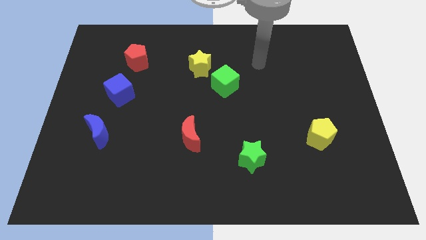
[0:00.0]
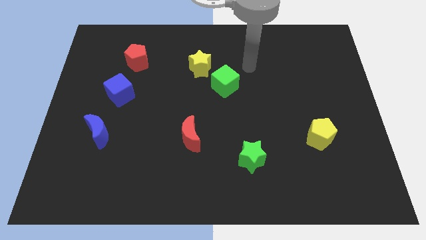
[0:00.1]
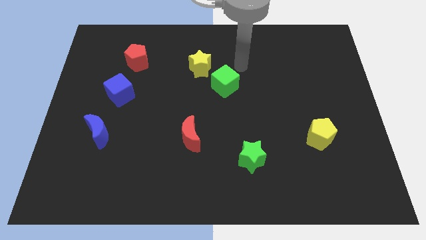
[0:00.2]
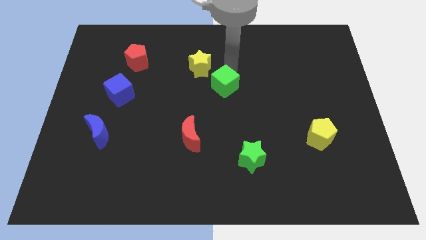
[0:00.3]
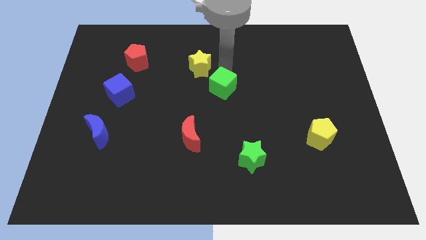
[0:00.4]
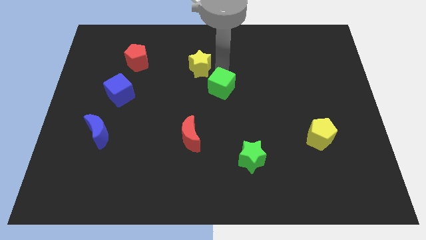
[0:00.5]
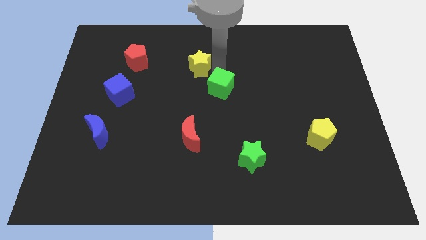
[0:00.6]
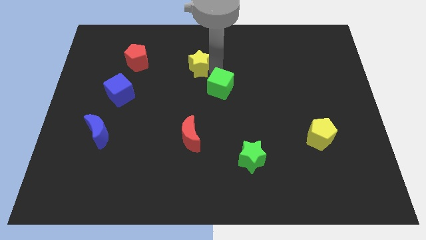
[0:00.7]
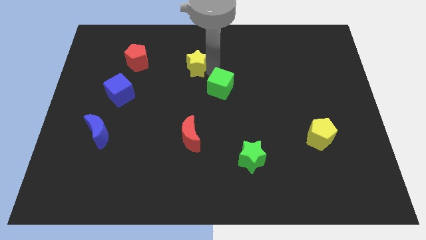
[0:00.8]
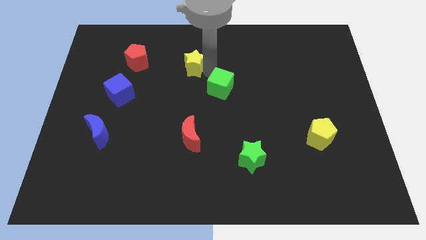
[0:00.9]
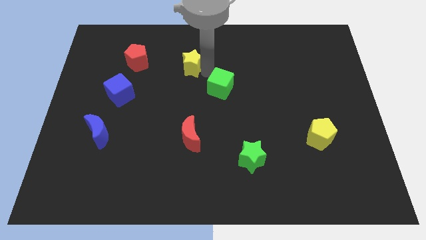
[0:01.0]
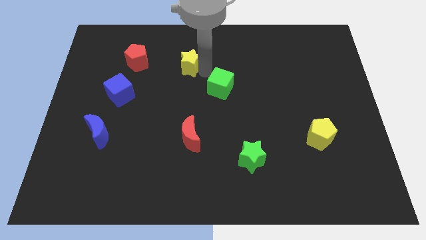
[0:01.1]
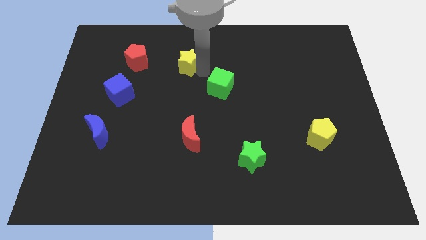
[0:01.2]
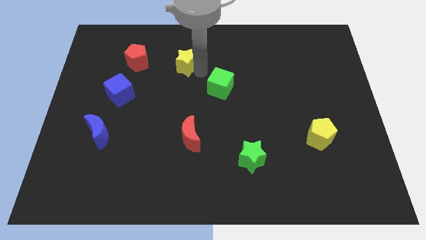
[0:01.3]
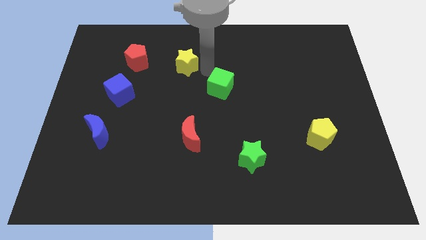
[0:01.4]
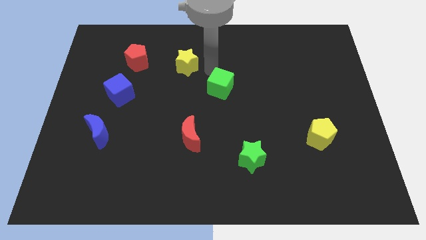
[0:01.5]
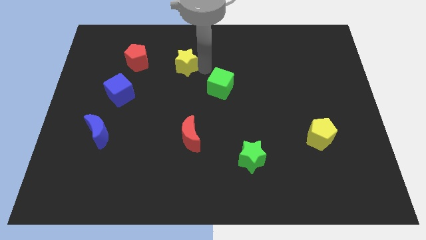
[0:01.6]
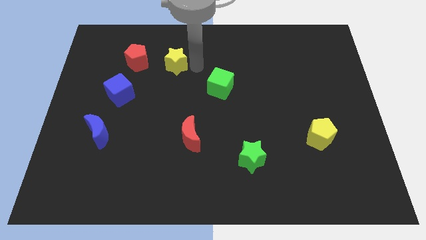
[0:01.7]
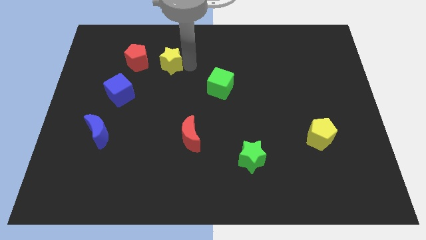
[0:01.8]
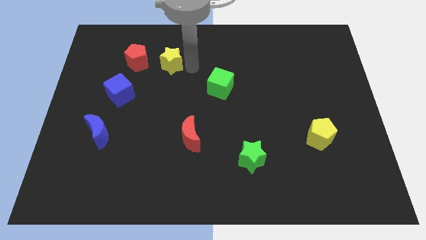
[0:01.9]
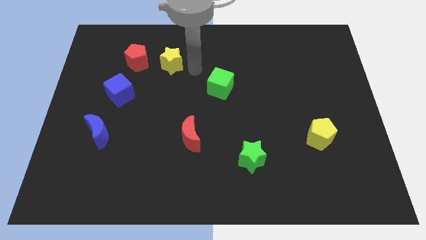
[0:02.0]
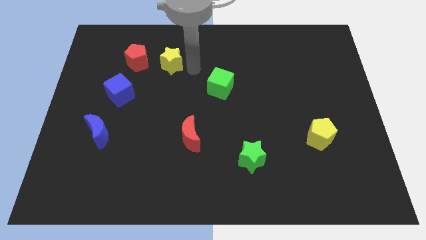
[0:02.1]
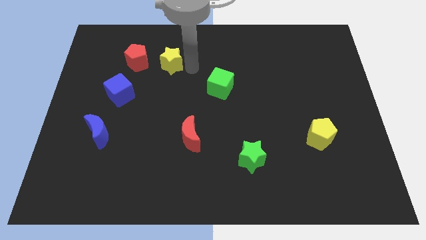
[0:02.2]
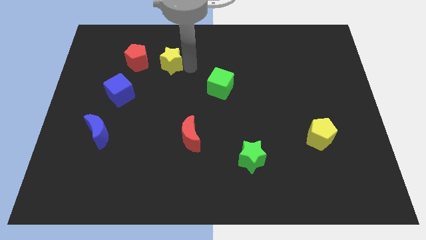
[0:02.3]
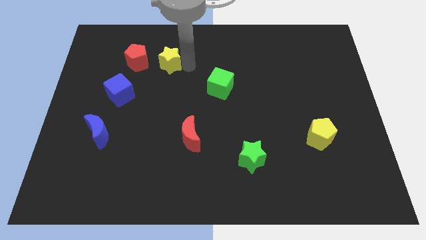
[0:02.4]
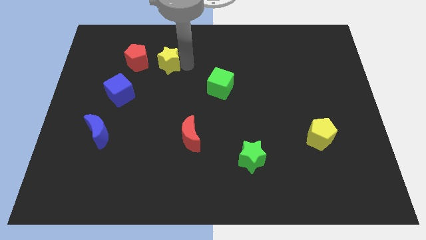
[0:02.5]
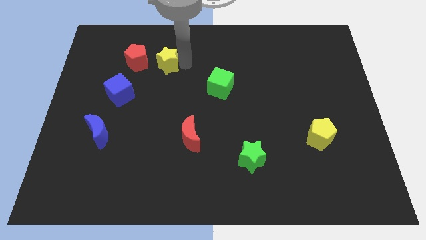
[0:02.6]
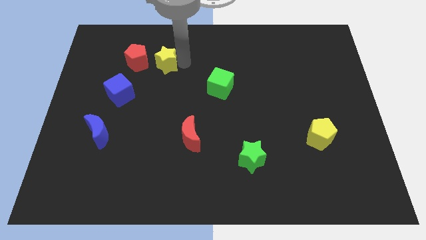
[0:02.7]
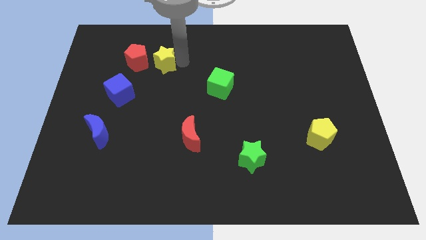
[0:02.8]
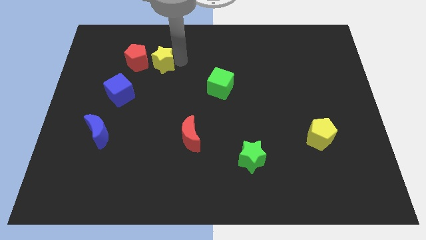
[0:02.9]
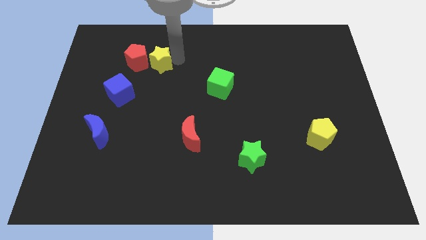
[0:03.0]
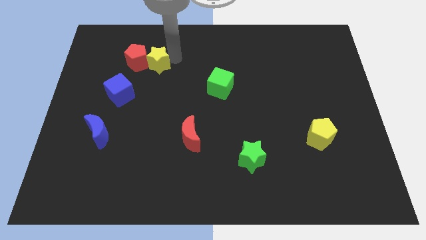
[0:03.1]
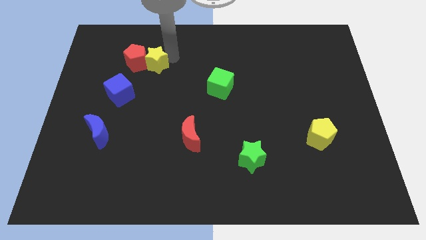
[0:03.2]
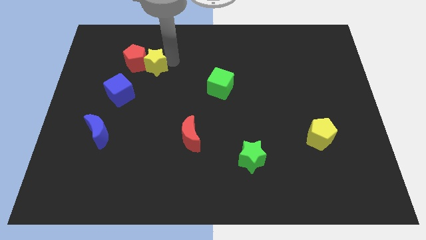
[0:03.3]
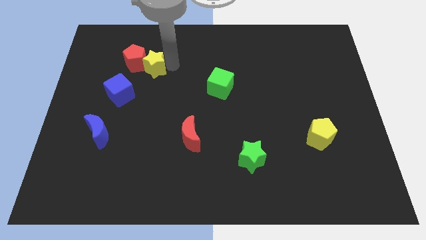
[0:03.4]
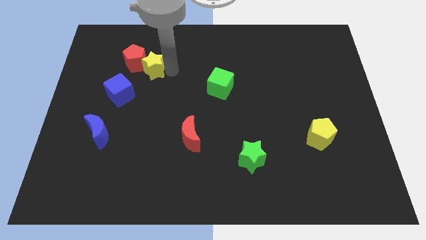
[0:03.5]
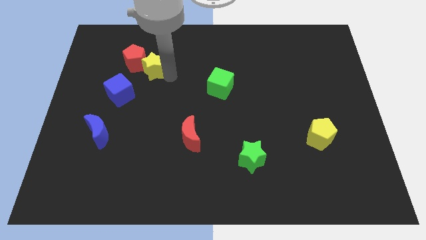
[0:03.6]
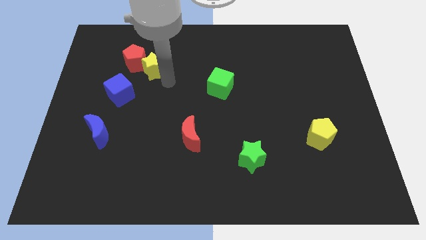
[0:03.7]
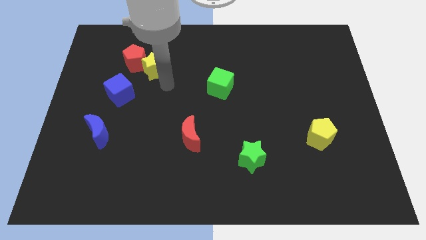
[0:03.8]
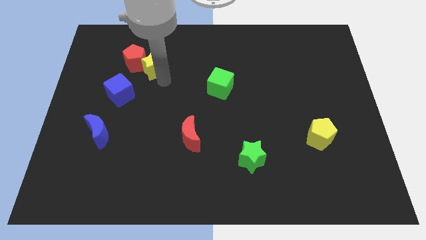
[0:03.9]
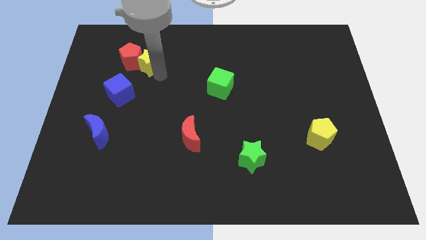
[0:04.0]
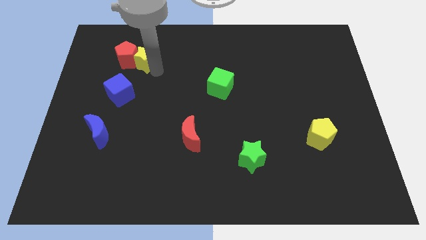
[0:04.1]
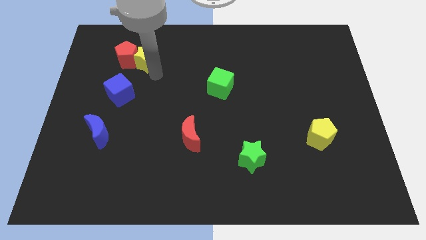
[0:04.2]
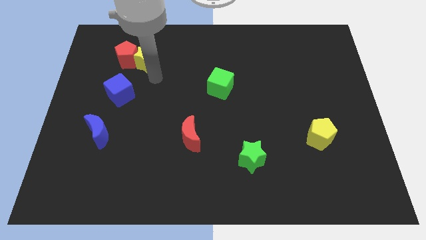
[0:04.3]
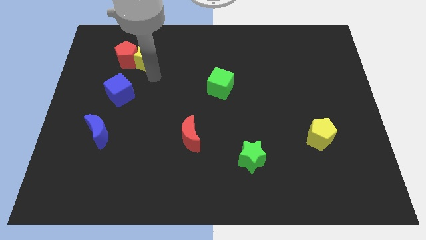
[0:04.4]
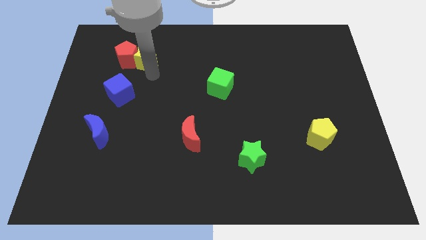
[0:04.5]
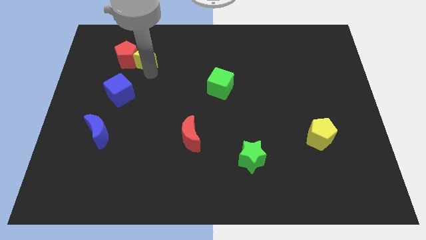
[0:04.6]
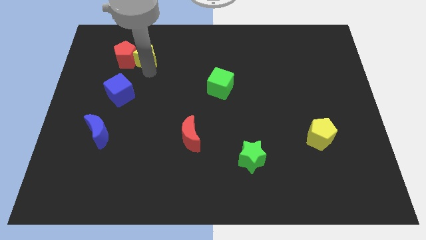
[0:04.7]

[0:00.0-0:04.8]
slide the yellow star to the top side of the blue cube

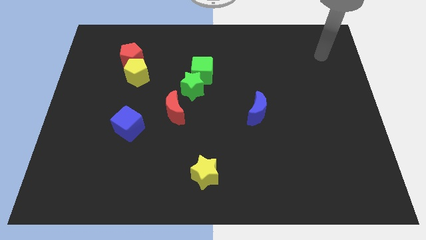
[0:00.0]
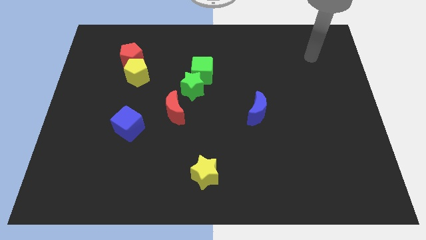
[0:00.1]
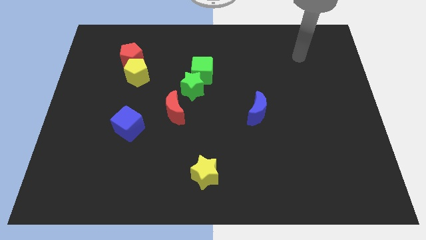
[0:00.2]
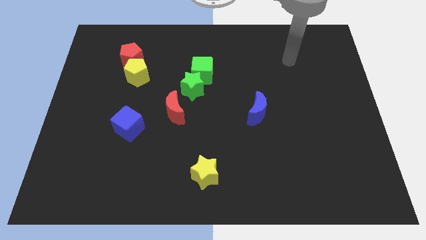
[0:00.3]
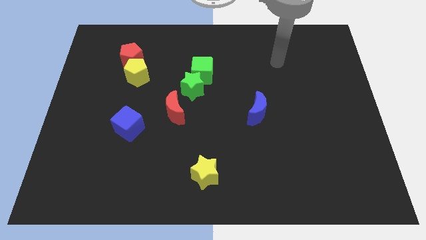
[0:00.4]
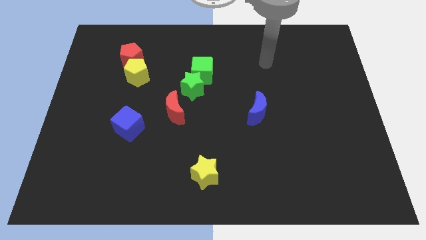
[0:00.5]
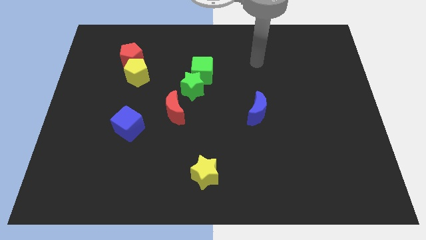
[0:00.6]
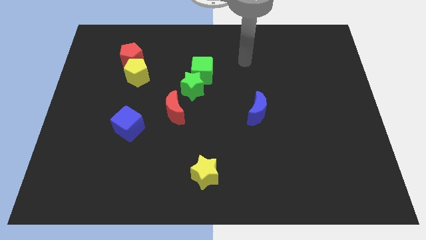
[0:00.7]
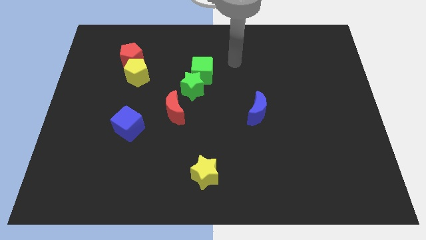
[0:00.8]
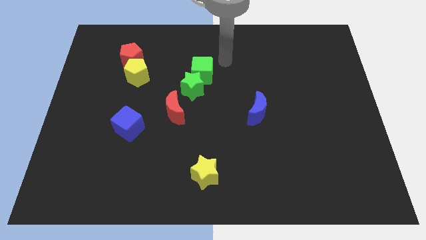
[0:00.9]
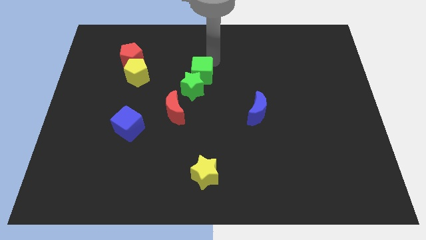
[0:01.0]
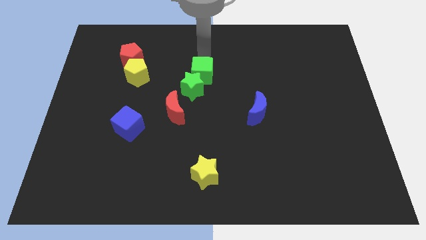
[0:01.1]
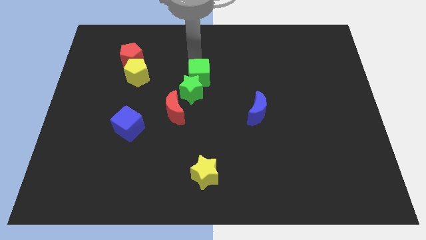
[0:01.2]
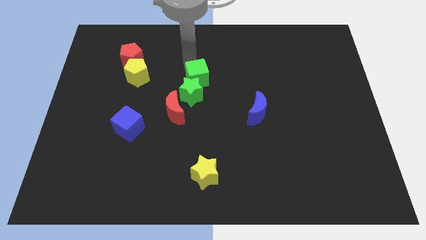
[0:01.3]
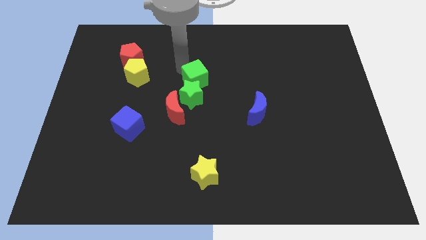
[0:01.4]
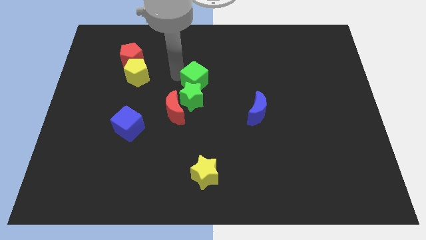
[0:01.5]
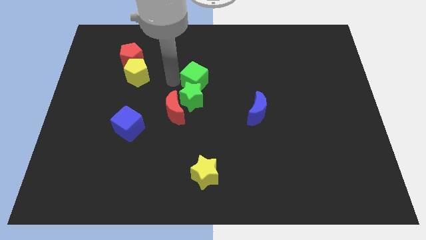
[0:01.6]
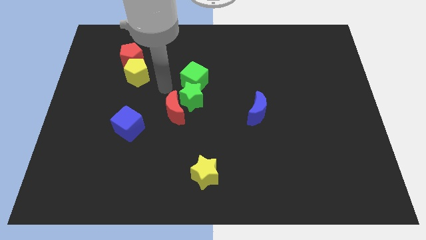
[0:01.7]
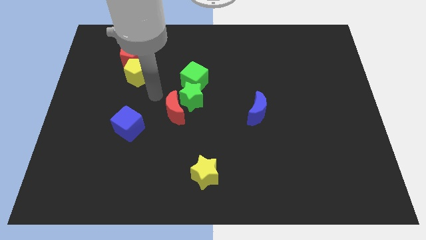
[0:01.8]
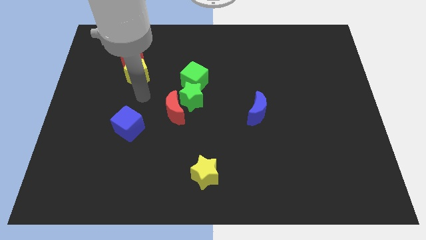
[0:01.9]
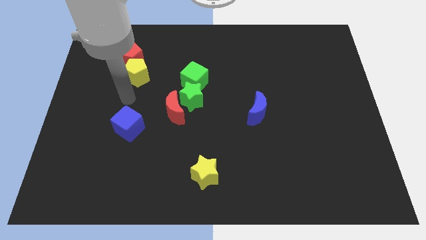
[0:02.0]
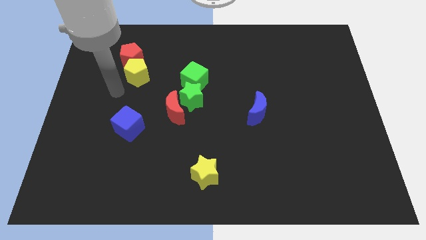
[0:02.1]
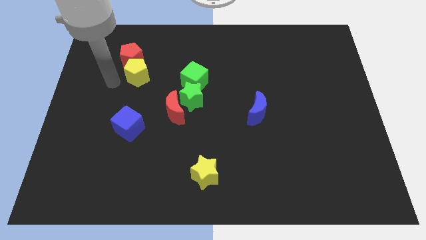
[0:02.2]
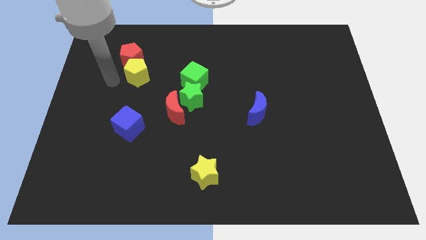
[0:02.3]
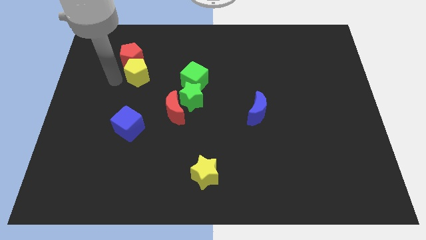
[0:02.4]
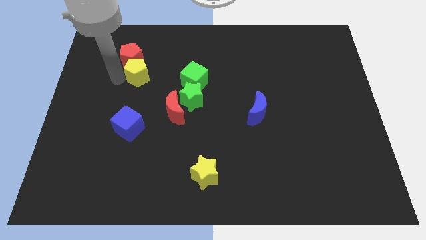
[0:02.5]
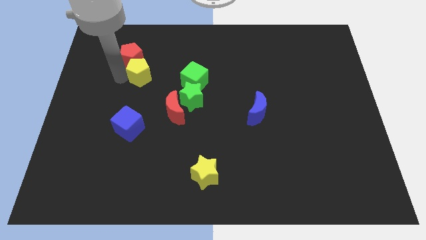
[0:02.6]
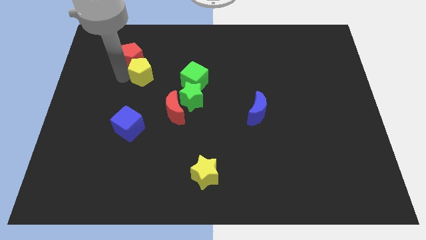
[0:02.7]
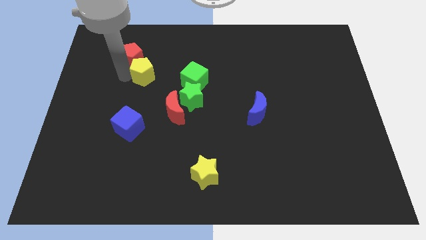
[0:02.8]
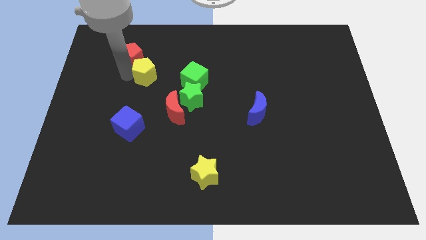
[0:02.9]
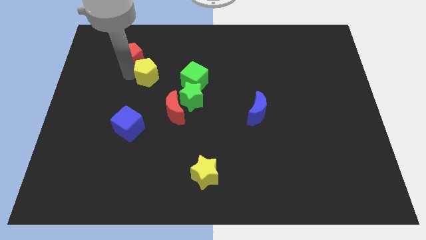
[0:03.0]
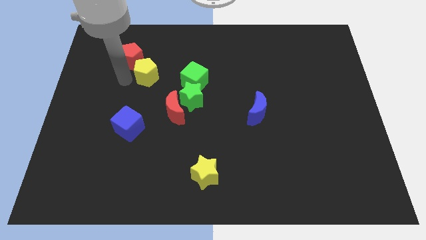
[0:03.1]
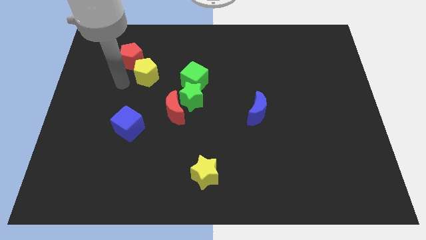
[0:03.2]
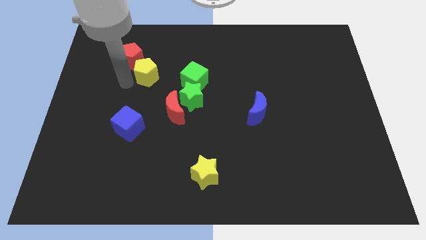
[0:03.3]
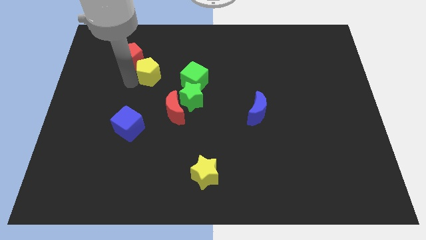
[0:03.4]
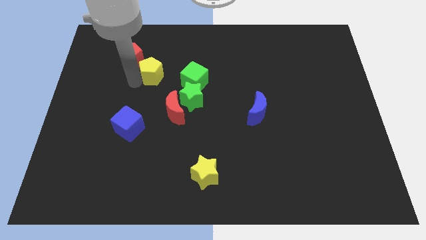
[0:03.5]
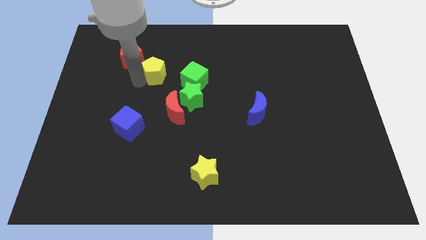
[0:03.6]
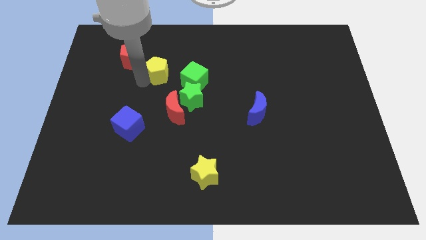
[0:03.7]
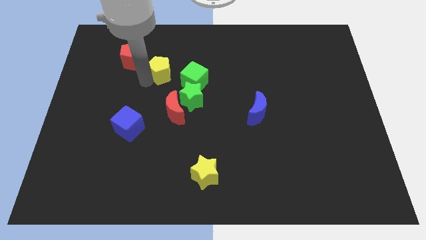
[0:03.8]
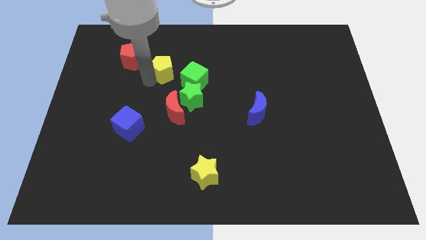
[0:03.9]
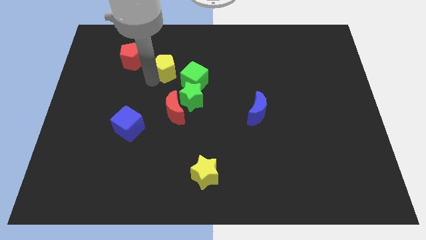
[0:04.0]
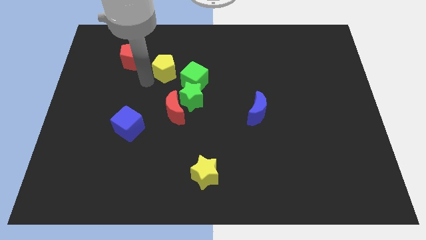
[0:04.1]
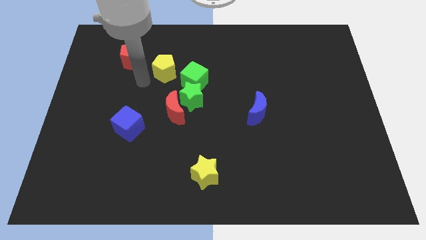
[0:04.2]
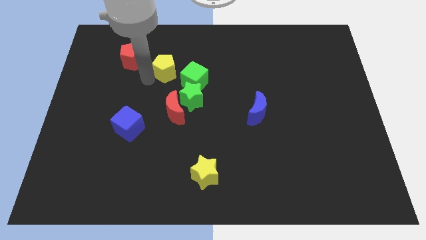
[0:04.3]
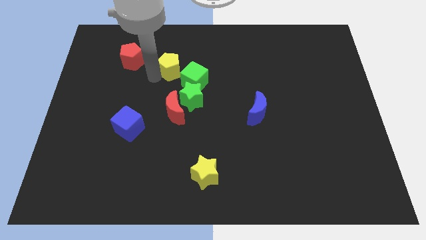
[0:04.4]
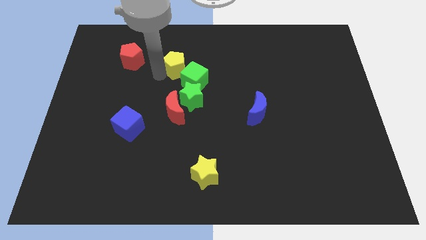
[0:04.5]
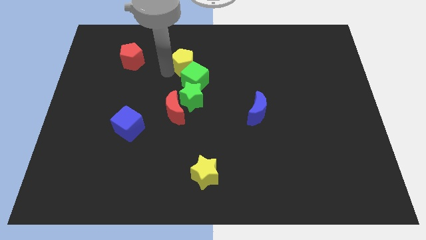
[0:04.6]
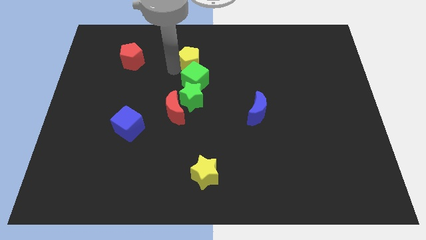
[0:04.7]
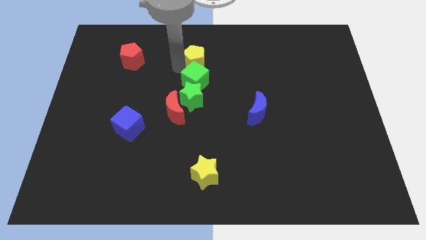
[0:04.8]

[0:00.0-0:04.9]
put the yellow pentagon to the top right side of the green cube
